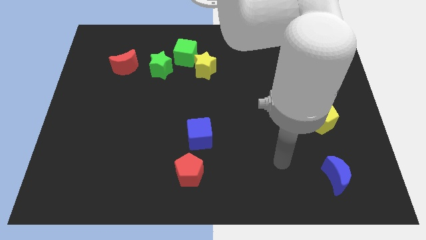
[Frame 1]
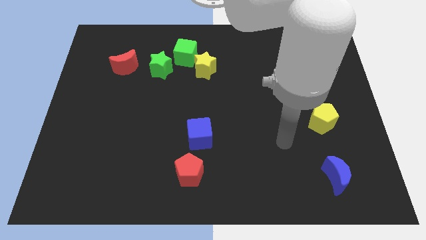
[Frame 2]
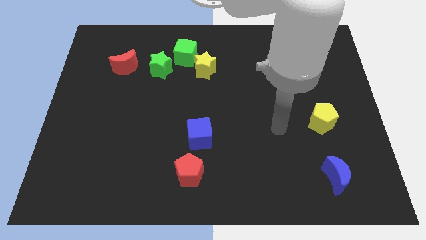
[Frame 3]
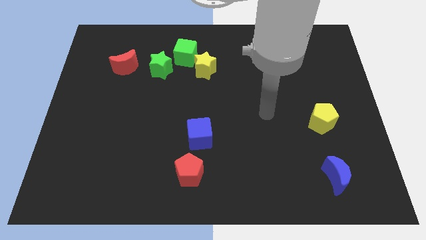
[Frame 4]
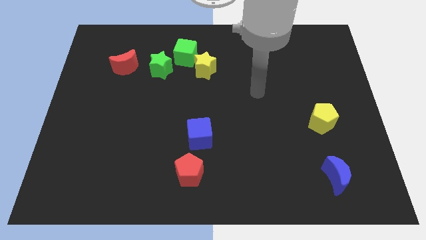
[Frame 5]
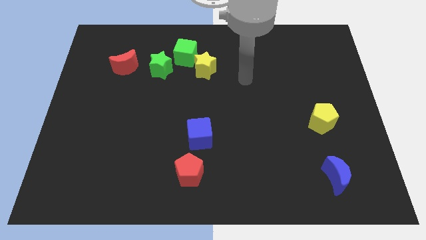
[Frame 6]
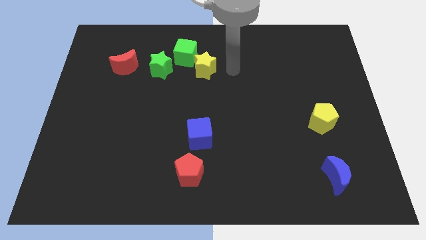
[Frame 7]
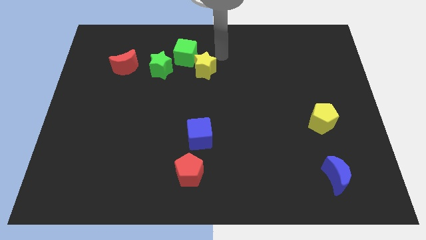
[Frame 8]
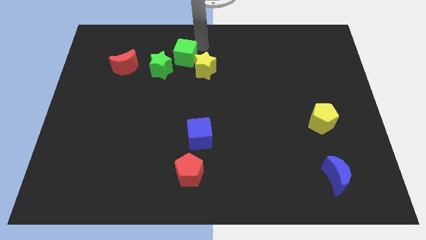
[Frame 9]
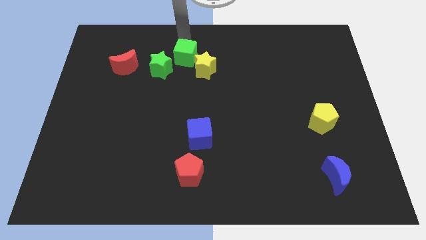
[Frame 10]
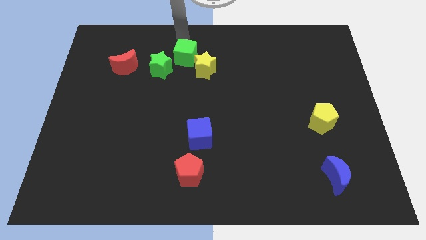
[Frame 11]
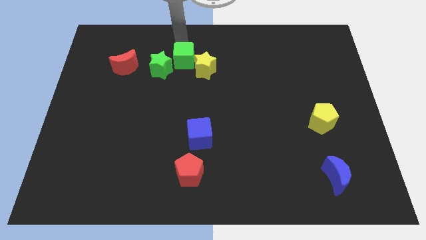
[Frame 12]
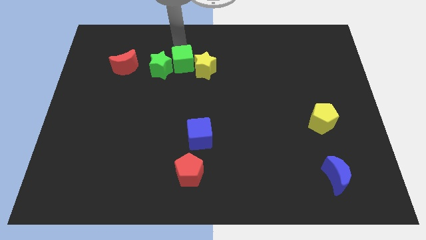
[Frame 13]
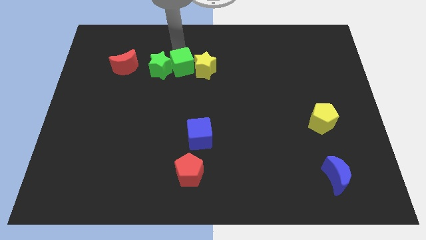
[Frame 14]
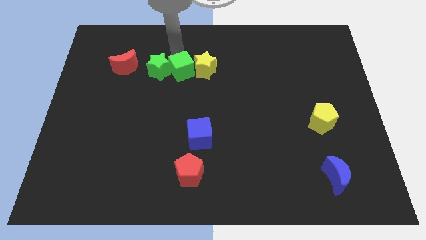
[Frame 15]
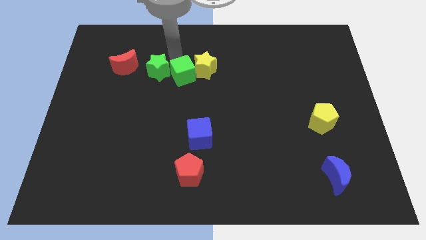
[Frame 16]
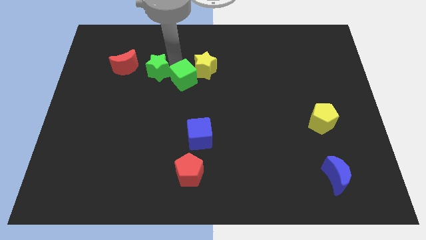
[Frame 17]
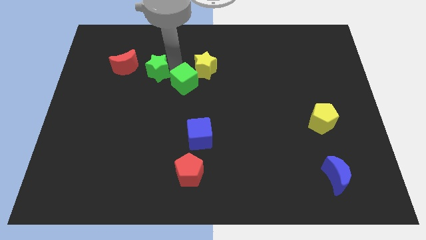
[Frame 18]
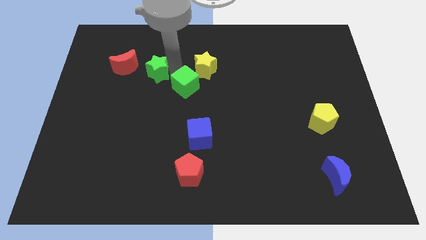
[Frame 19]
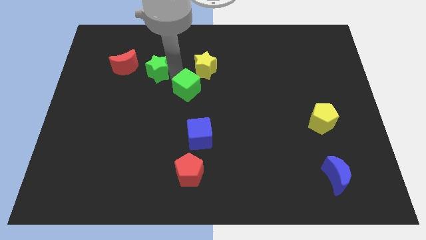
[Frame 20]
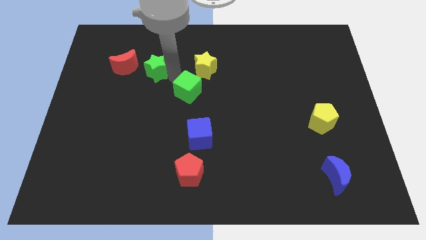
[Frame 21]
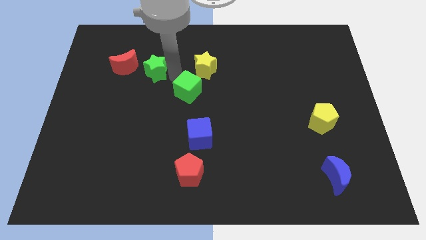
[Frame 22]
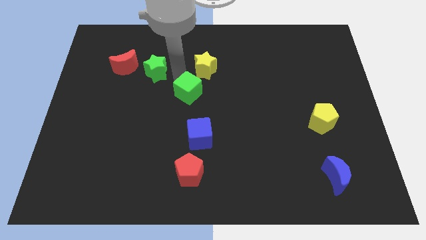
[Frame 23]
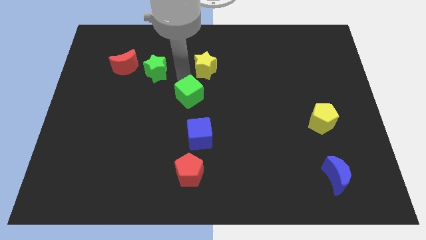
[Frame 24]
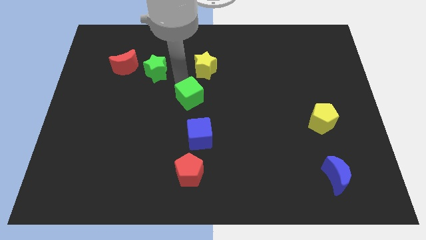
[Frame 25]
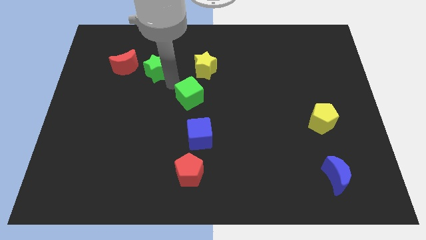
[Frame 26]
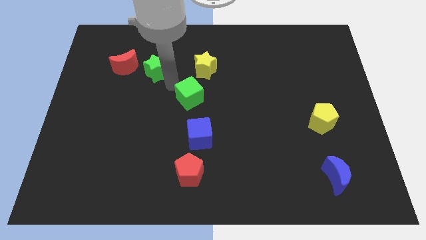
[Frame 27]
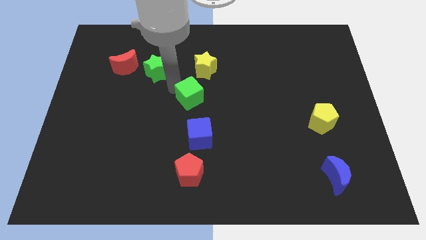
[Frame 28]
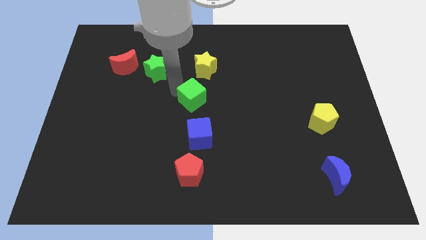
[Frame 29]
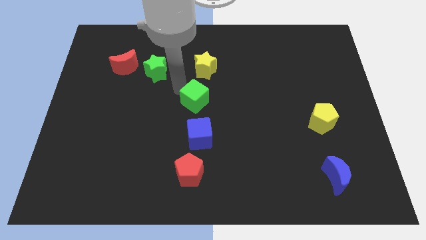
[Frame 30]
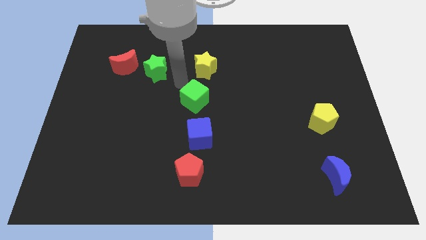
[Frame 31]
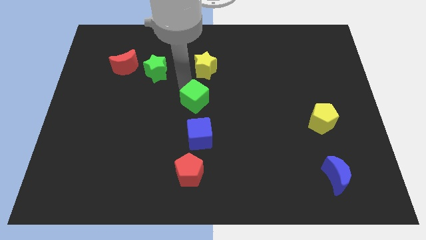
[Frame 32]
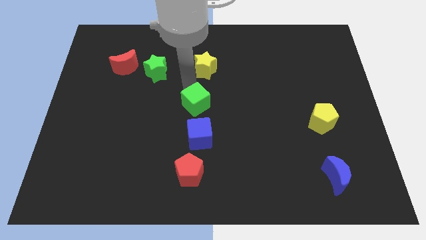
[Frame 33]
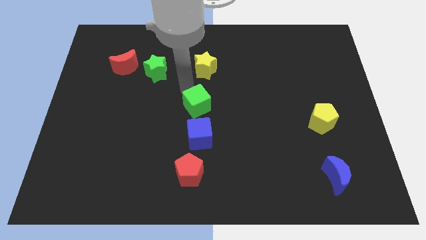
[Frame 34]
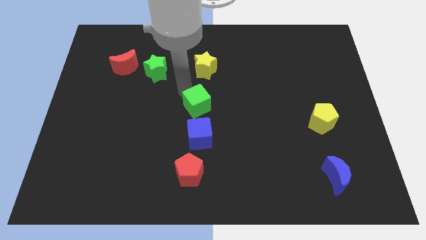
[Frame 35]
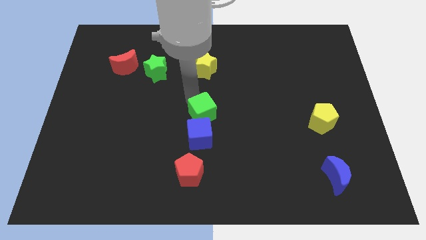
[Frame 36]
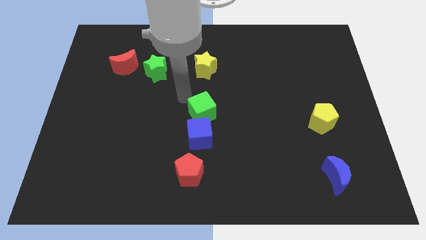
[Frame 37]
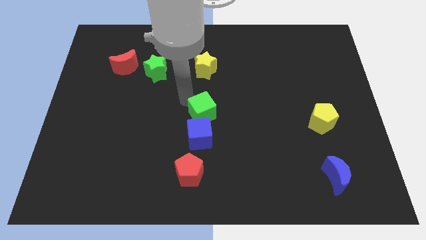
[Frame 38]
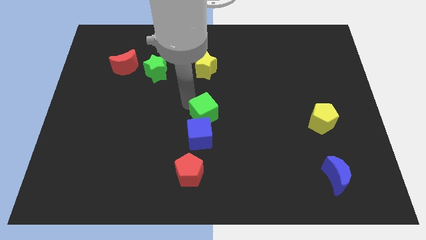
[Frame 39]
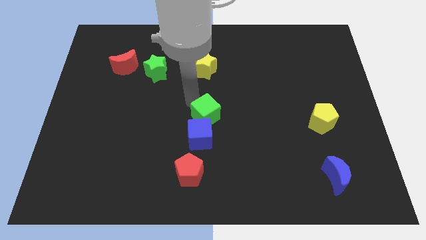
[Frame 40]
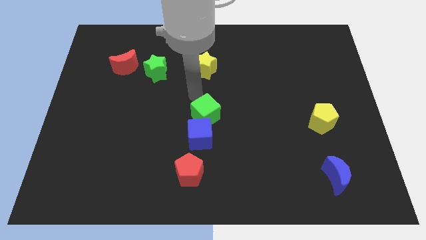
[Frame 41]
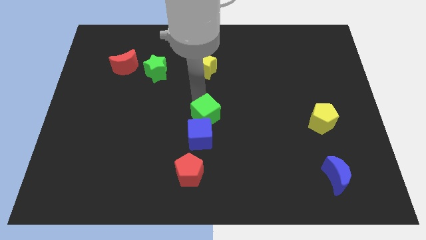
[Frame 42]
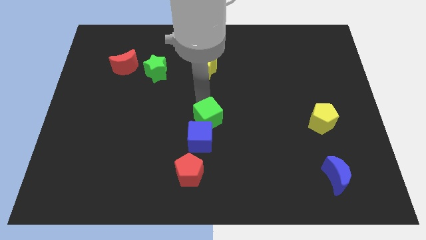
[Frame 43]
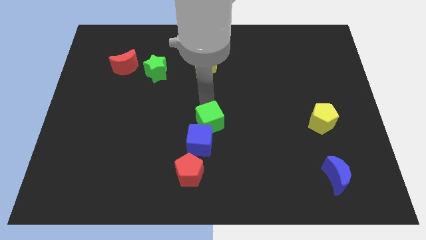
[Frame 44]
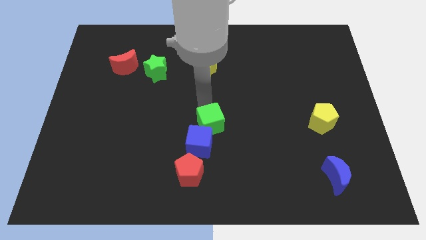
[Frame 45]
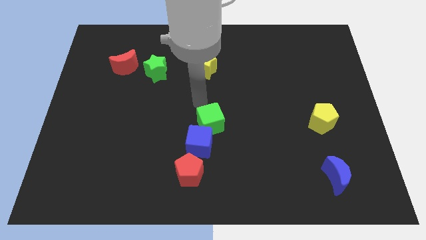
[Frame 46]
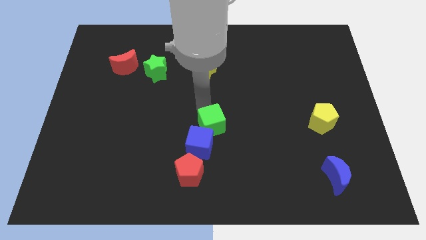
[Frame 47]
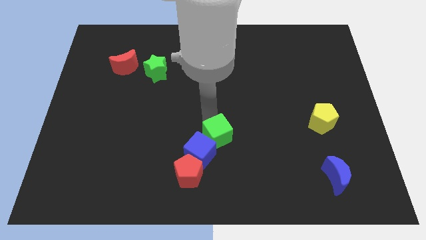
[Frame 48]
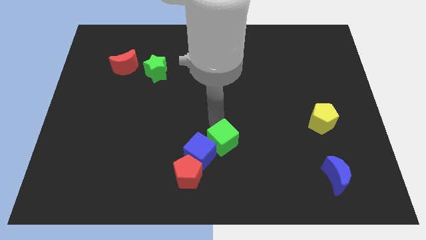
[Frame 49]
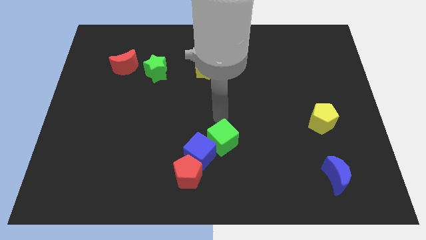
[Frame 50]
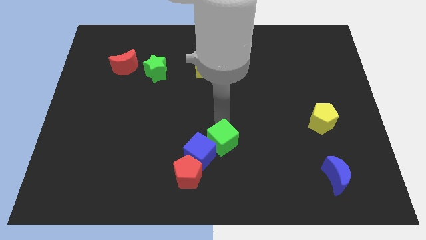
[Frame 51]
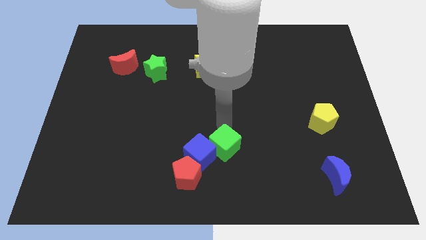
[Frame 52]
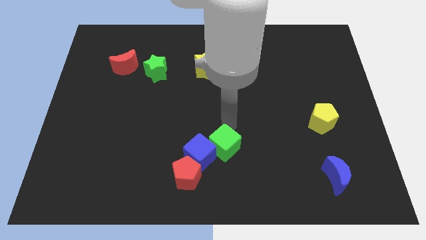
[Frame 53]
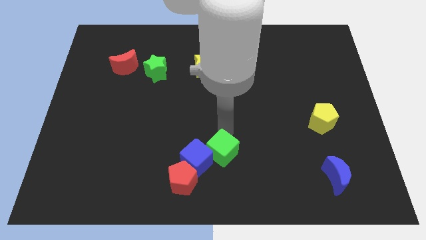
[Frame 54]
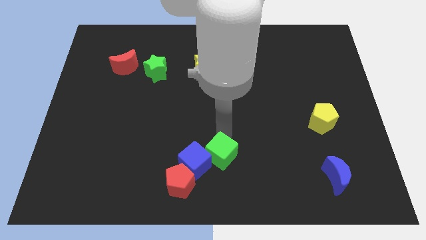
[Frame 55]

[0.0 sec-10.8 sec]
move the green cube to the bottom side

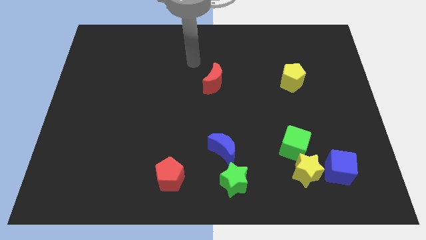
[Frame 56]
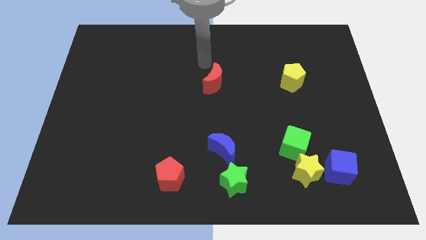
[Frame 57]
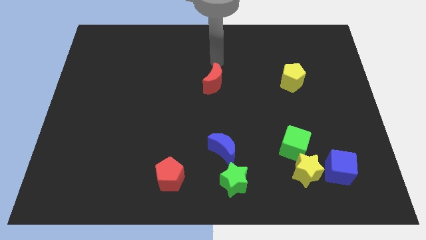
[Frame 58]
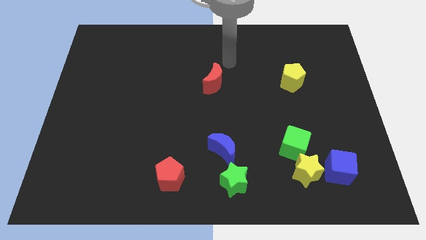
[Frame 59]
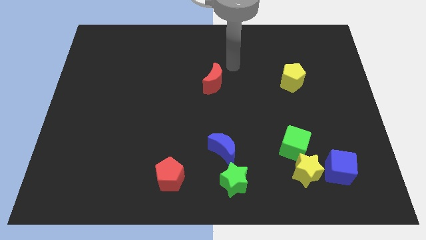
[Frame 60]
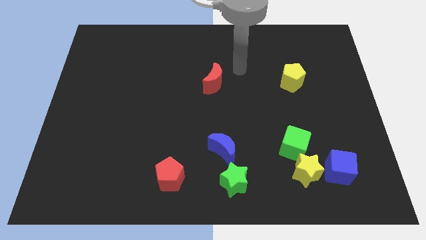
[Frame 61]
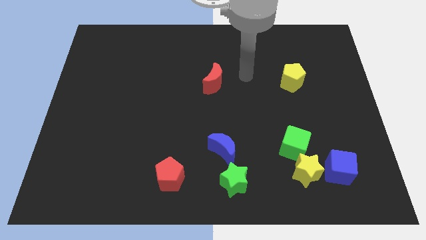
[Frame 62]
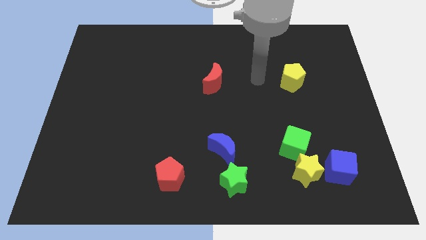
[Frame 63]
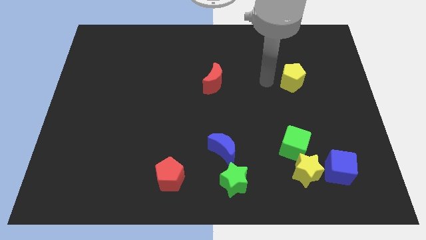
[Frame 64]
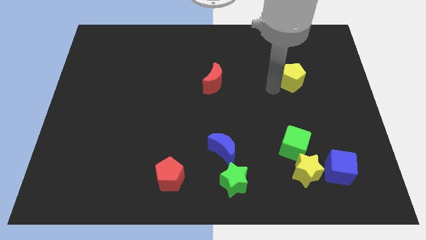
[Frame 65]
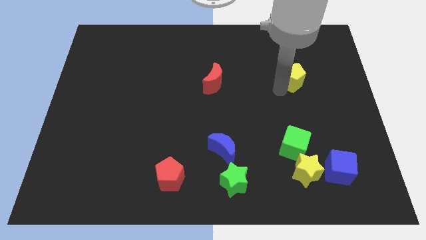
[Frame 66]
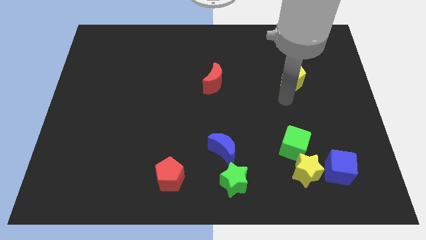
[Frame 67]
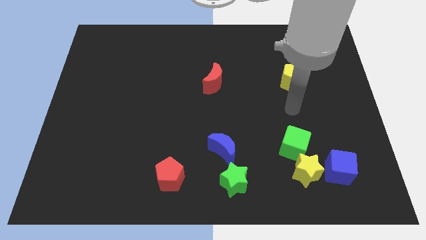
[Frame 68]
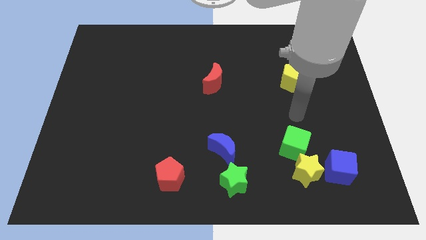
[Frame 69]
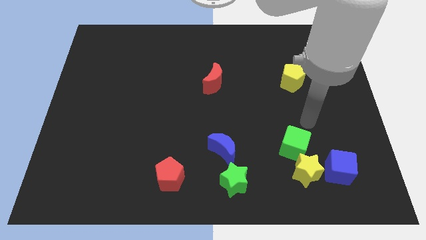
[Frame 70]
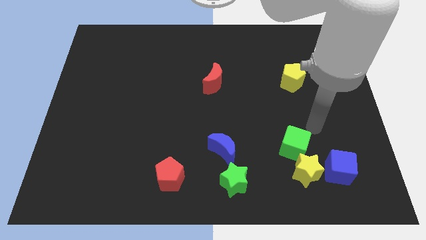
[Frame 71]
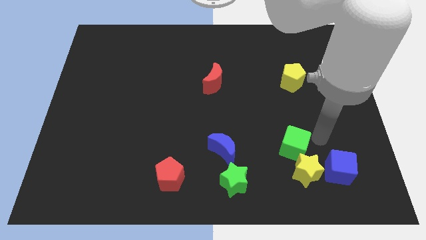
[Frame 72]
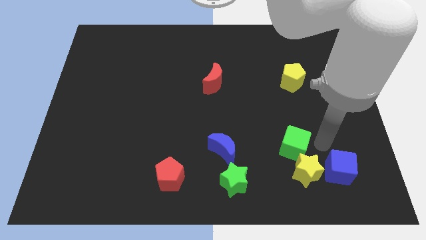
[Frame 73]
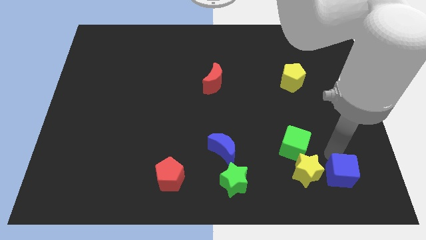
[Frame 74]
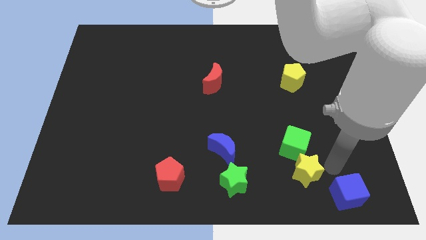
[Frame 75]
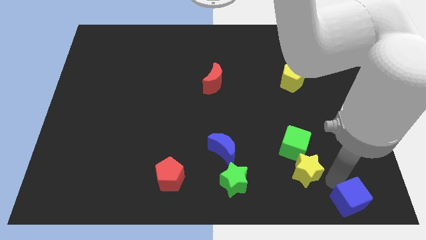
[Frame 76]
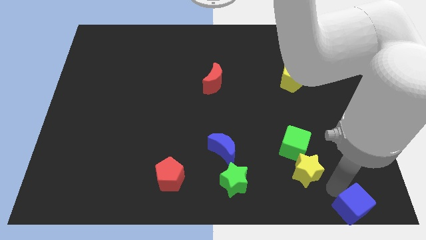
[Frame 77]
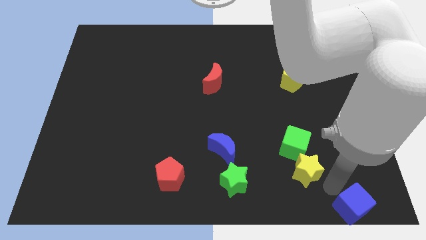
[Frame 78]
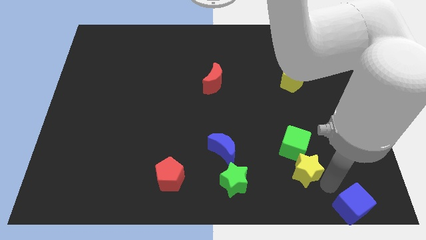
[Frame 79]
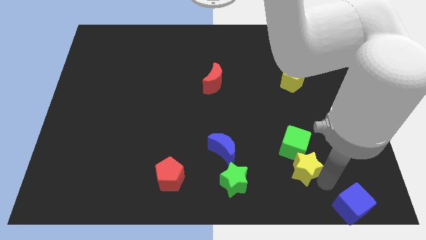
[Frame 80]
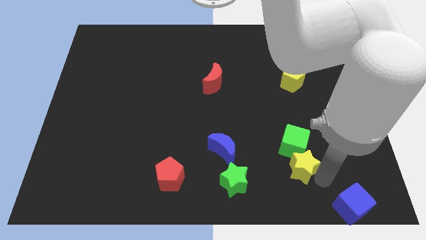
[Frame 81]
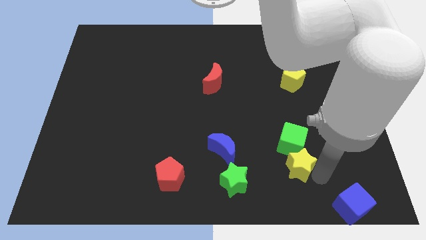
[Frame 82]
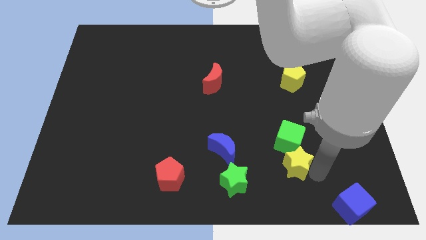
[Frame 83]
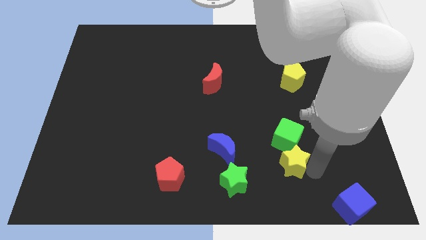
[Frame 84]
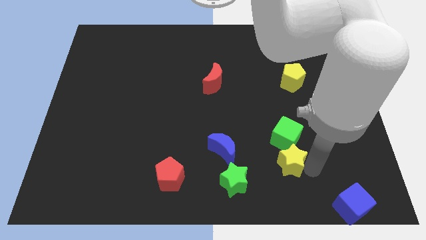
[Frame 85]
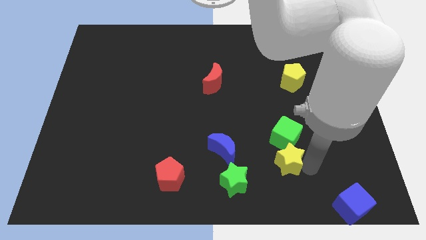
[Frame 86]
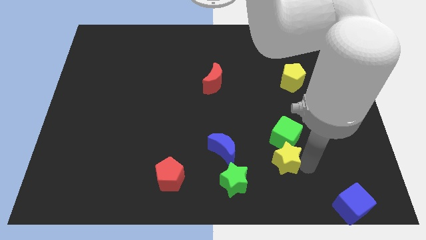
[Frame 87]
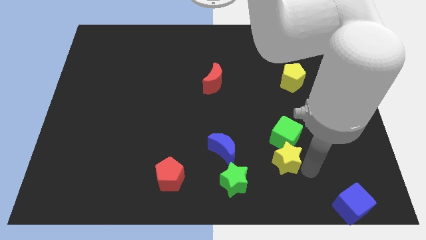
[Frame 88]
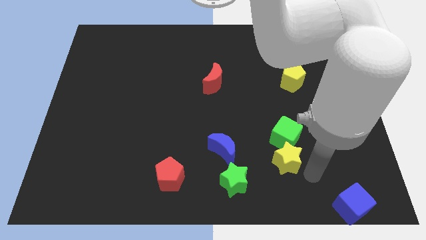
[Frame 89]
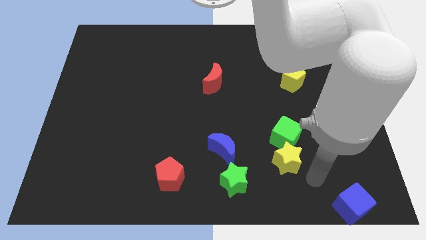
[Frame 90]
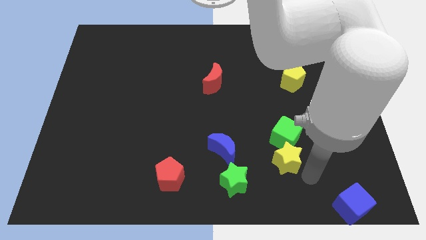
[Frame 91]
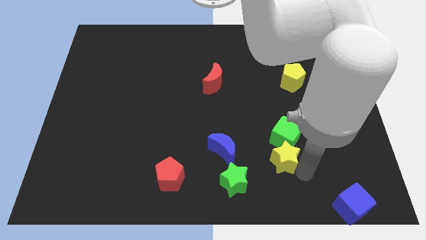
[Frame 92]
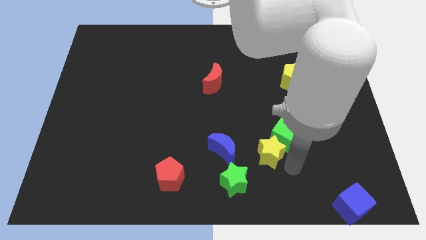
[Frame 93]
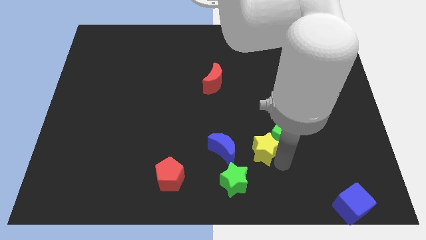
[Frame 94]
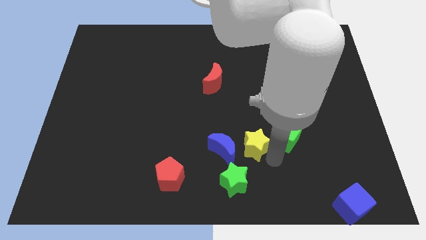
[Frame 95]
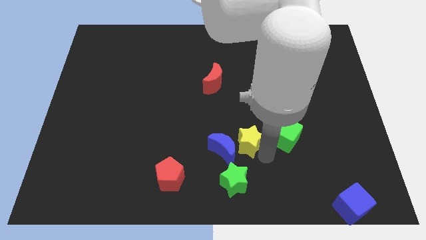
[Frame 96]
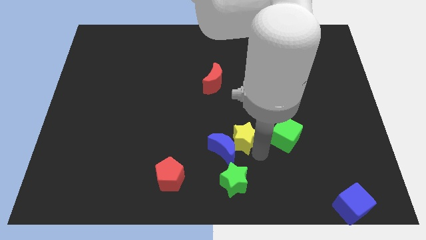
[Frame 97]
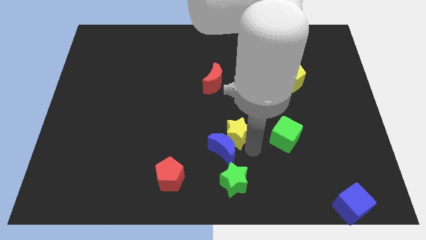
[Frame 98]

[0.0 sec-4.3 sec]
push the yellow star to the middle
